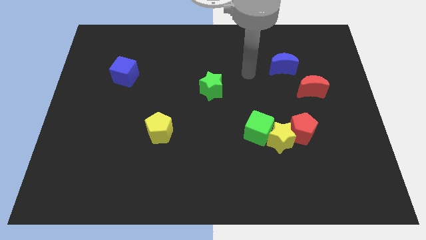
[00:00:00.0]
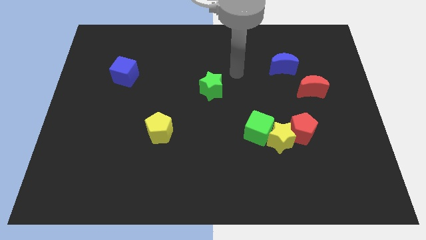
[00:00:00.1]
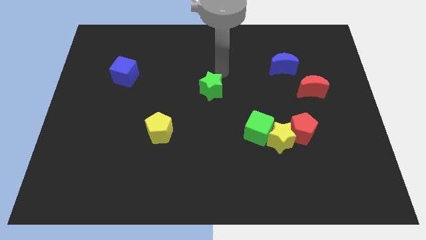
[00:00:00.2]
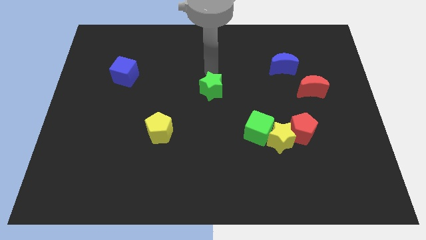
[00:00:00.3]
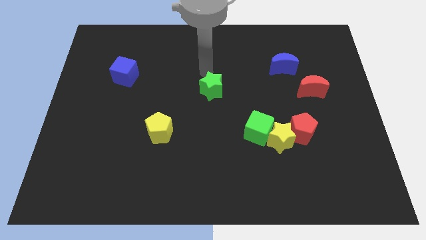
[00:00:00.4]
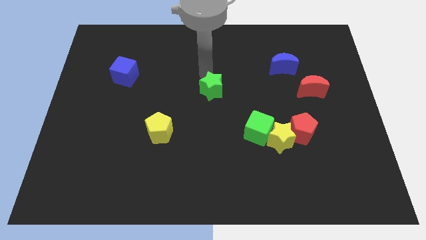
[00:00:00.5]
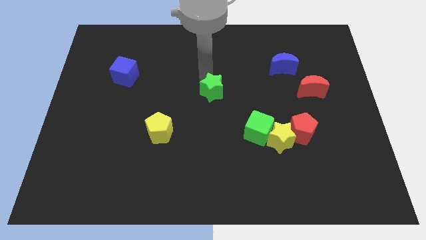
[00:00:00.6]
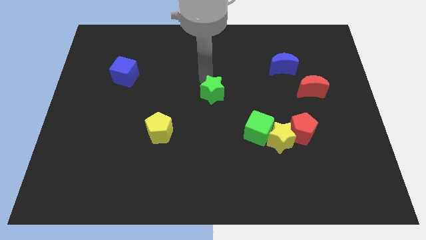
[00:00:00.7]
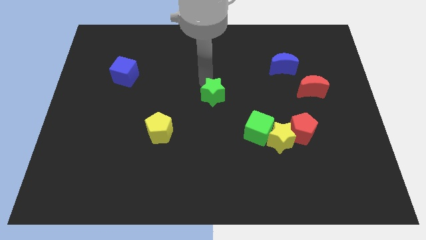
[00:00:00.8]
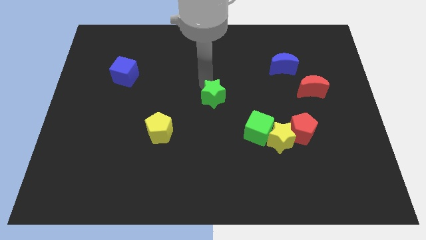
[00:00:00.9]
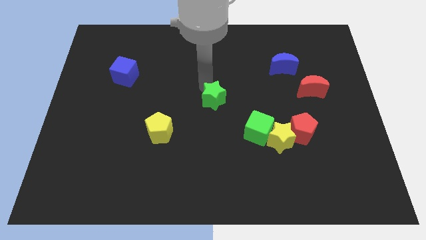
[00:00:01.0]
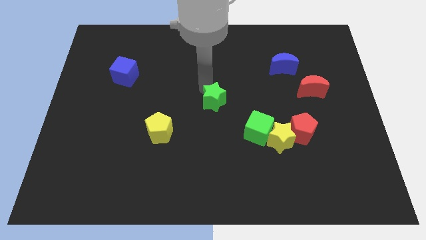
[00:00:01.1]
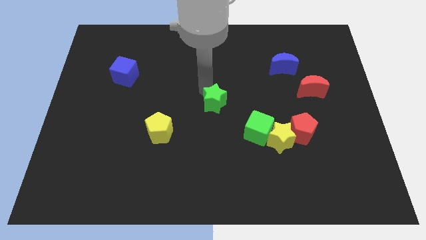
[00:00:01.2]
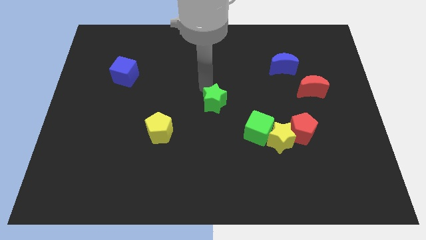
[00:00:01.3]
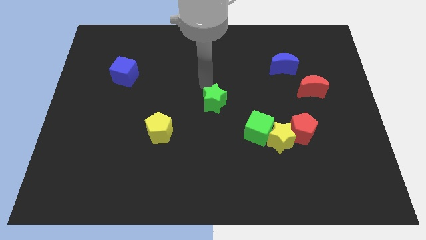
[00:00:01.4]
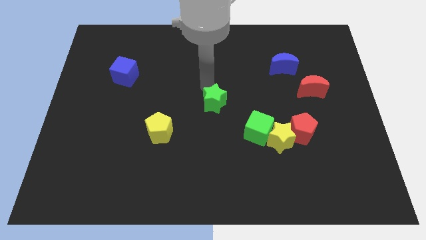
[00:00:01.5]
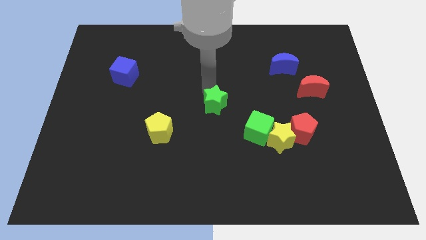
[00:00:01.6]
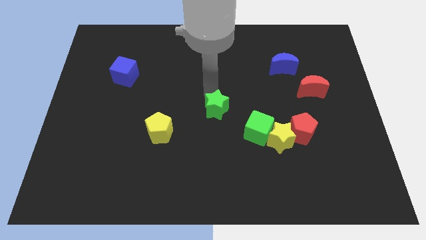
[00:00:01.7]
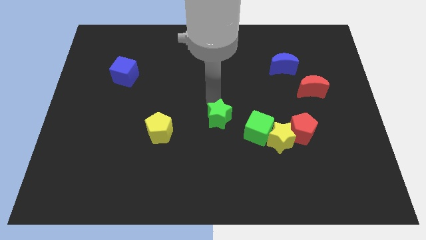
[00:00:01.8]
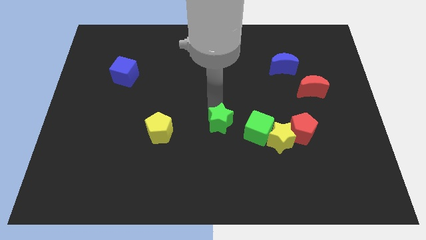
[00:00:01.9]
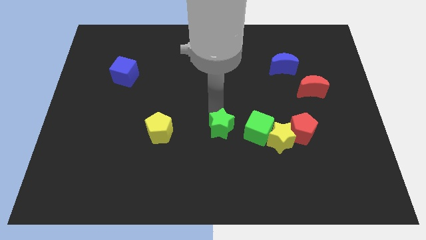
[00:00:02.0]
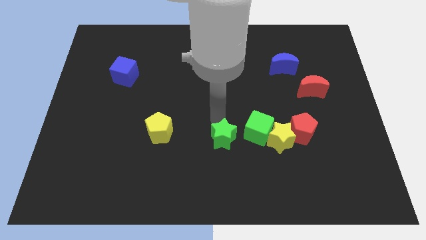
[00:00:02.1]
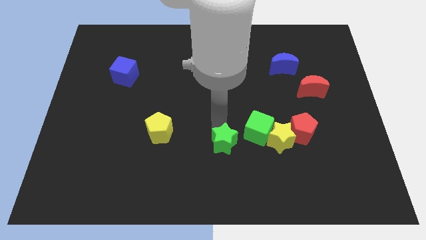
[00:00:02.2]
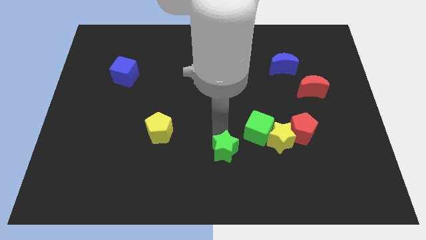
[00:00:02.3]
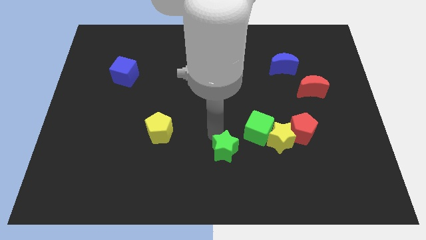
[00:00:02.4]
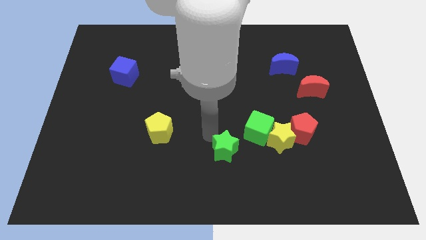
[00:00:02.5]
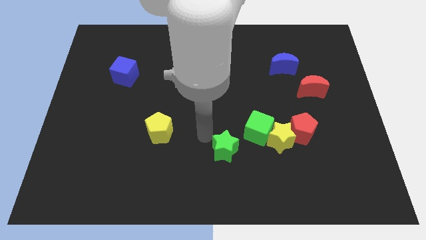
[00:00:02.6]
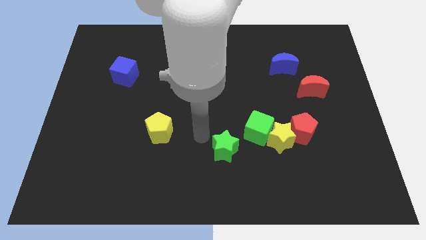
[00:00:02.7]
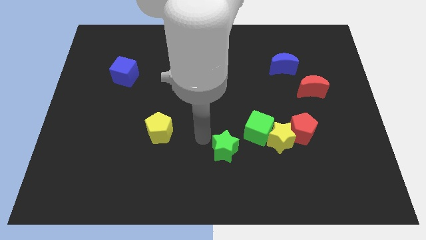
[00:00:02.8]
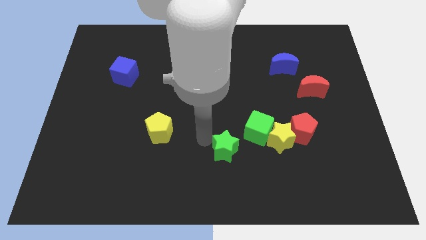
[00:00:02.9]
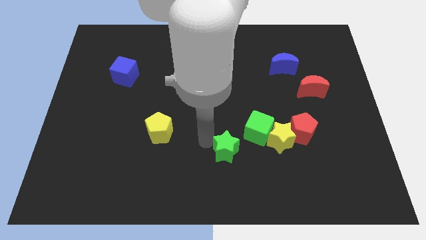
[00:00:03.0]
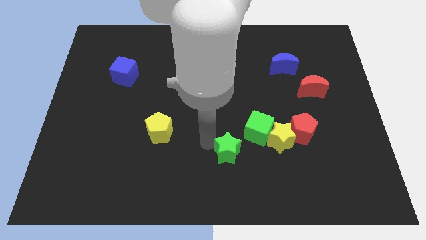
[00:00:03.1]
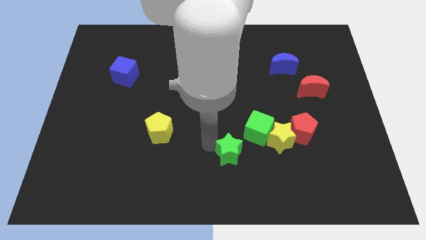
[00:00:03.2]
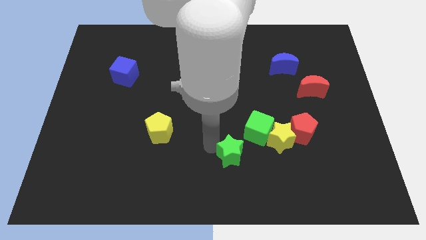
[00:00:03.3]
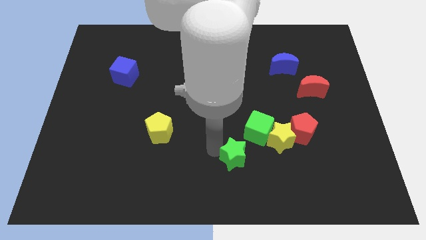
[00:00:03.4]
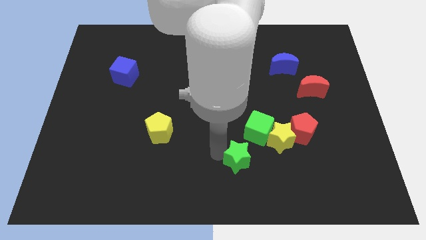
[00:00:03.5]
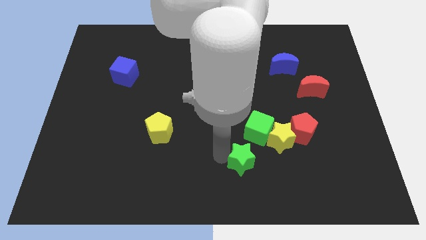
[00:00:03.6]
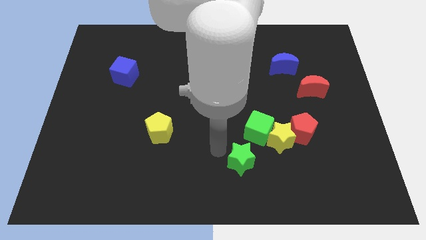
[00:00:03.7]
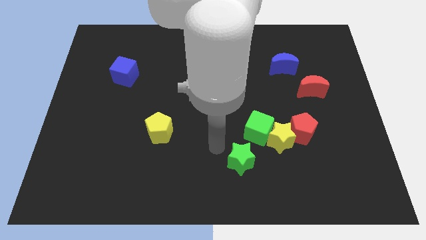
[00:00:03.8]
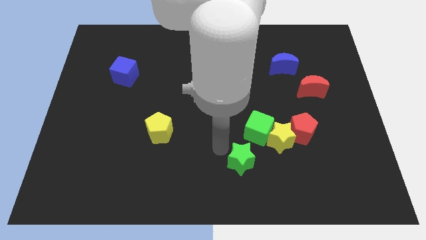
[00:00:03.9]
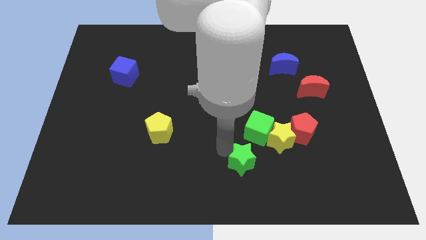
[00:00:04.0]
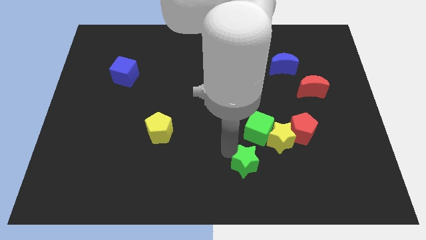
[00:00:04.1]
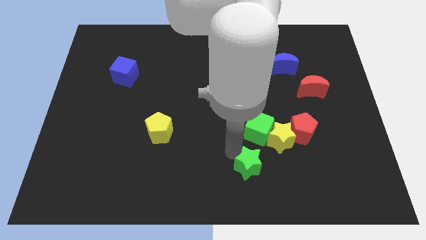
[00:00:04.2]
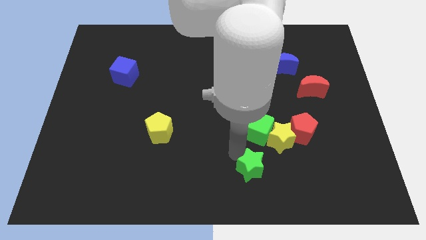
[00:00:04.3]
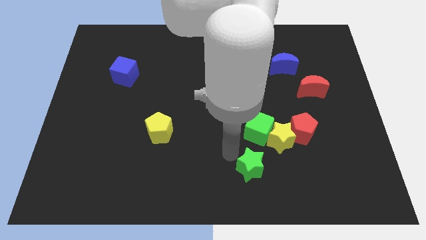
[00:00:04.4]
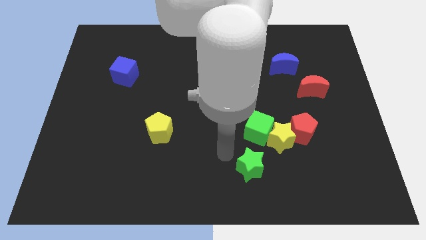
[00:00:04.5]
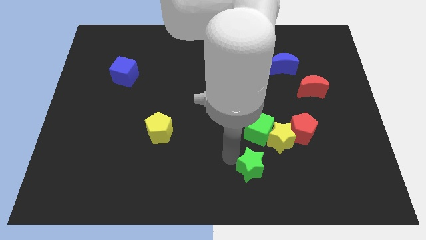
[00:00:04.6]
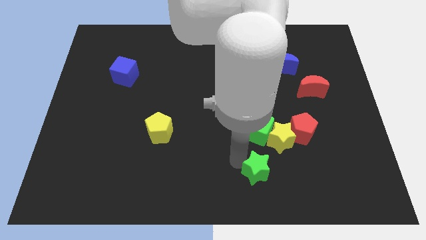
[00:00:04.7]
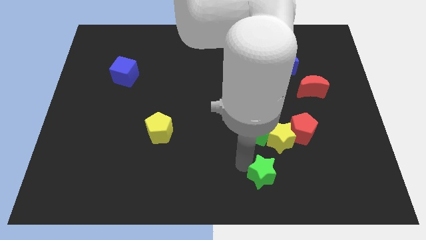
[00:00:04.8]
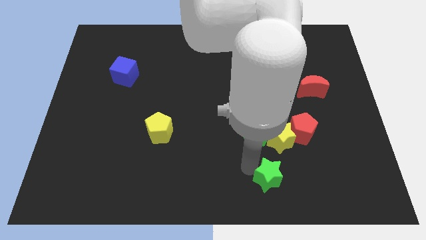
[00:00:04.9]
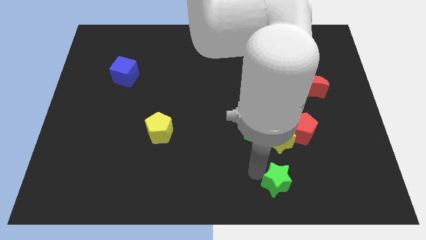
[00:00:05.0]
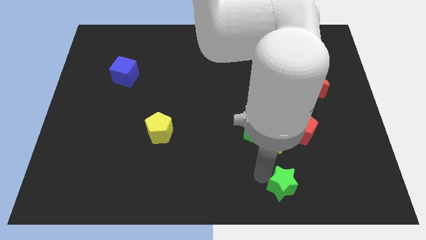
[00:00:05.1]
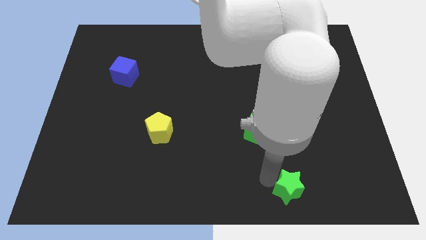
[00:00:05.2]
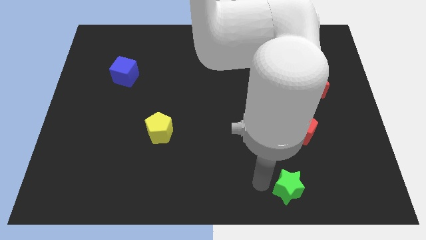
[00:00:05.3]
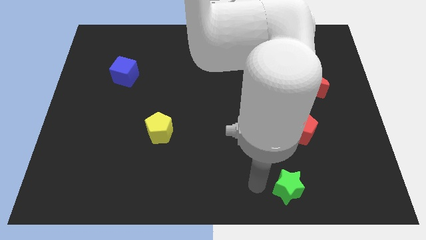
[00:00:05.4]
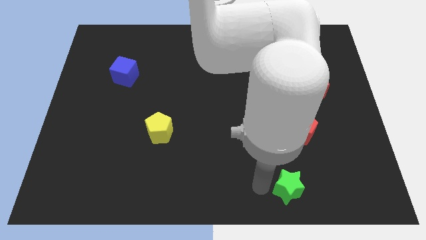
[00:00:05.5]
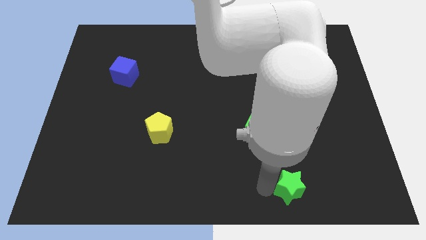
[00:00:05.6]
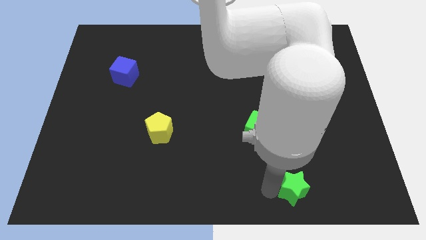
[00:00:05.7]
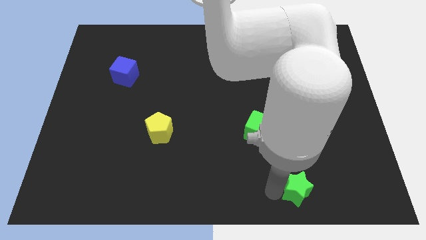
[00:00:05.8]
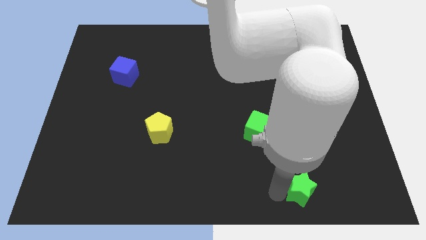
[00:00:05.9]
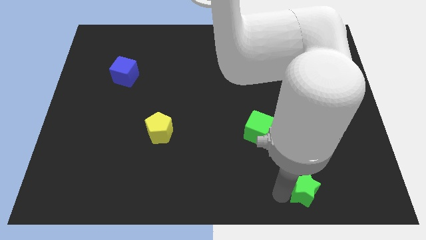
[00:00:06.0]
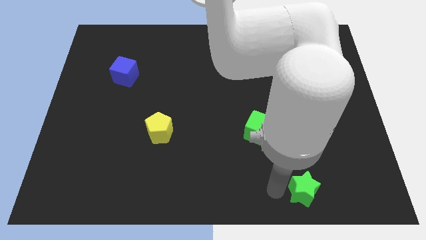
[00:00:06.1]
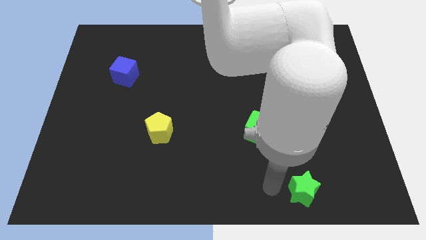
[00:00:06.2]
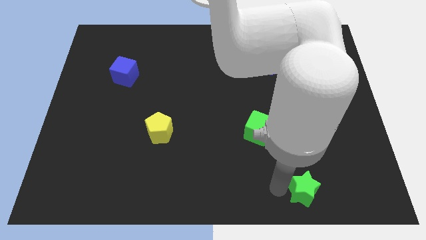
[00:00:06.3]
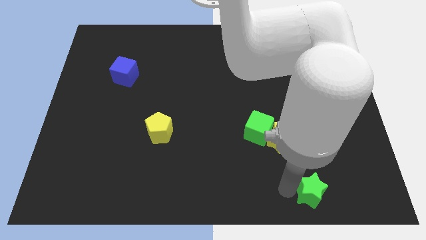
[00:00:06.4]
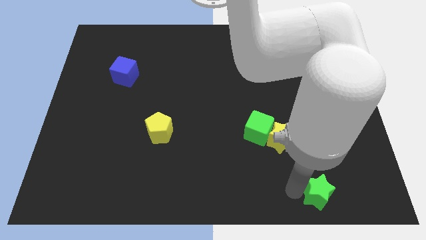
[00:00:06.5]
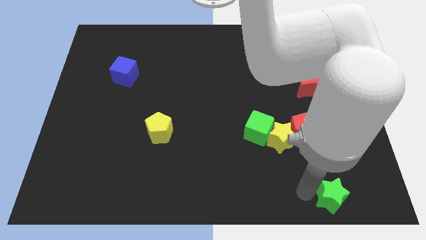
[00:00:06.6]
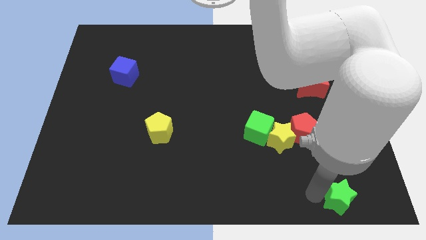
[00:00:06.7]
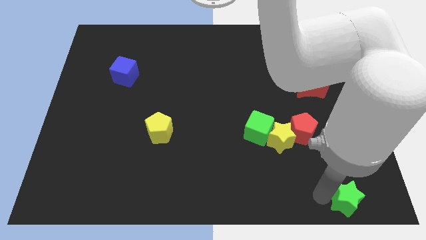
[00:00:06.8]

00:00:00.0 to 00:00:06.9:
slide the green star to the bottom right corner

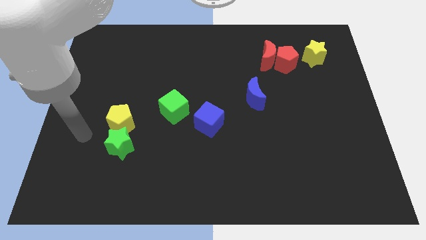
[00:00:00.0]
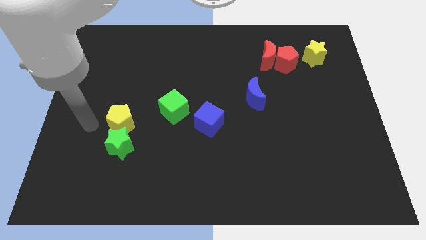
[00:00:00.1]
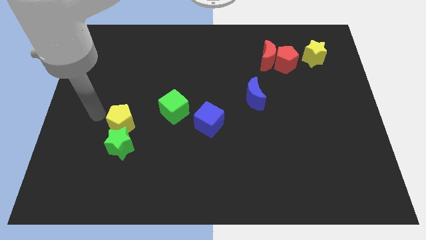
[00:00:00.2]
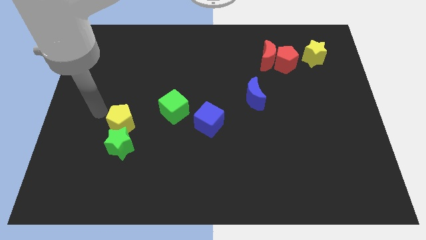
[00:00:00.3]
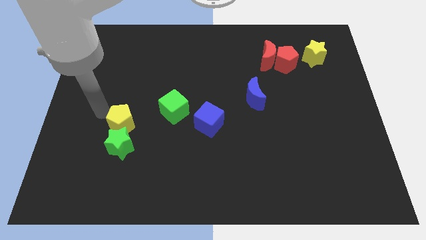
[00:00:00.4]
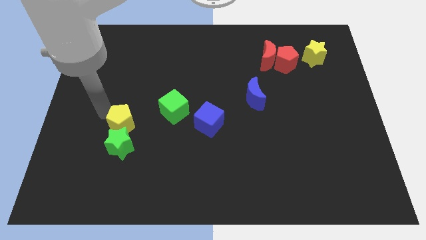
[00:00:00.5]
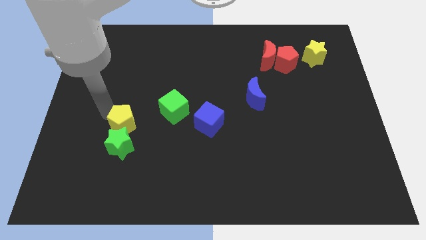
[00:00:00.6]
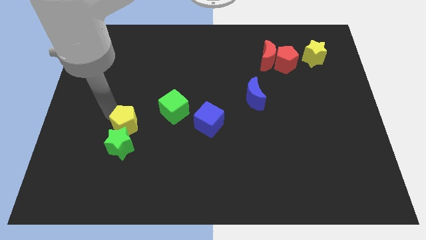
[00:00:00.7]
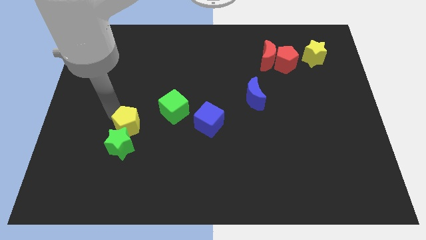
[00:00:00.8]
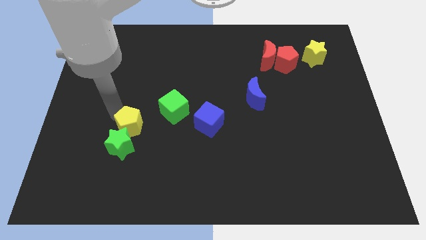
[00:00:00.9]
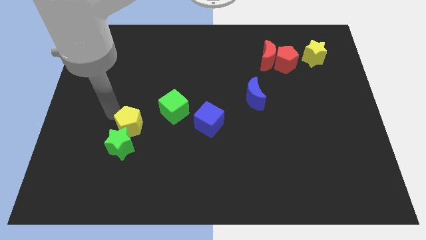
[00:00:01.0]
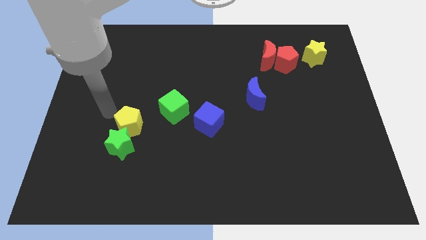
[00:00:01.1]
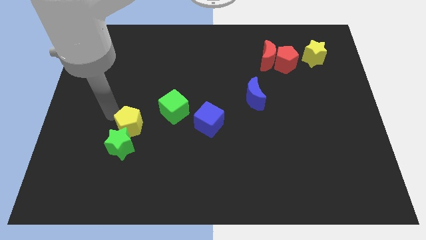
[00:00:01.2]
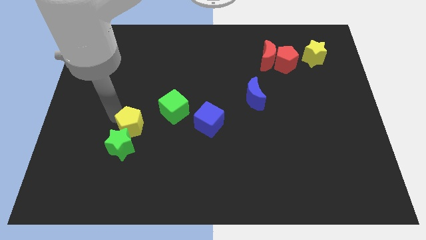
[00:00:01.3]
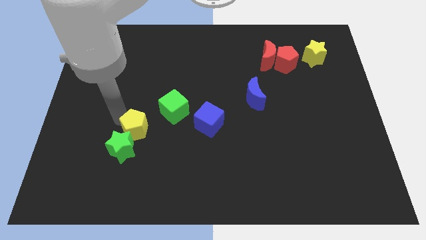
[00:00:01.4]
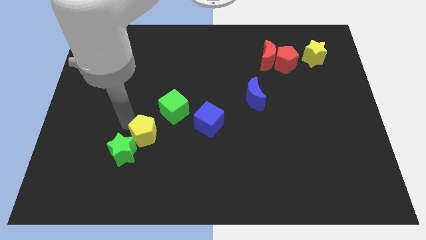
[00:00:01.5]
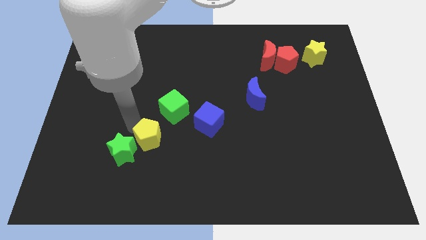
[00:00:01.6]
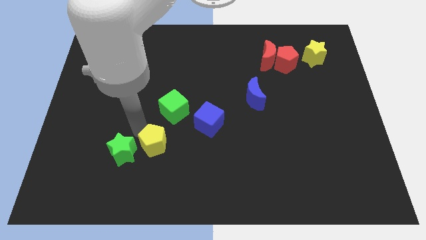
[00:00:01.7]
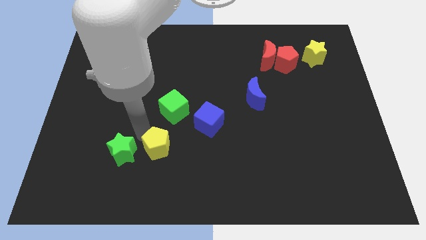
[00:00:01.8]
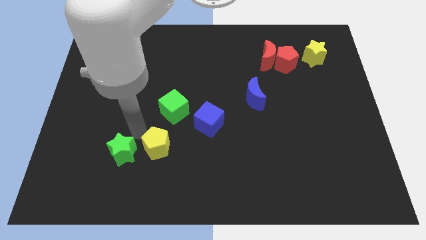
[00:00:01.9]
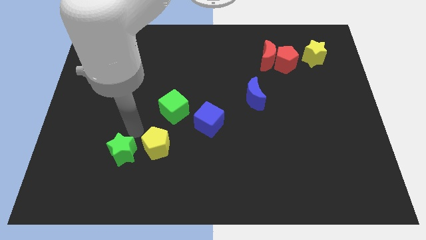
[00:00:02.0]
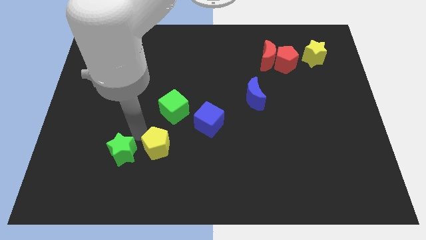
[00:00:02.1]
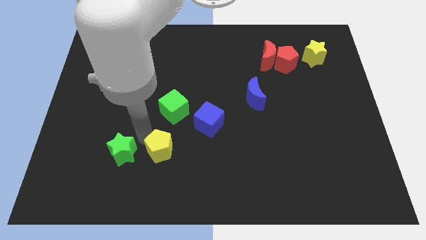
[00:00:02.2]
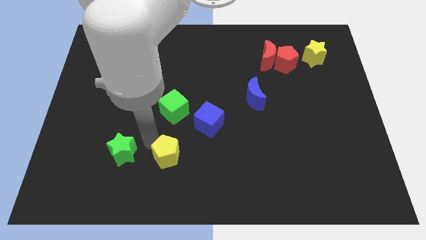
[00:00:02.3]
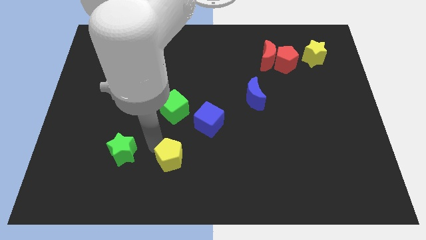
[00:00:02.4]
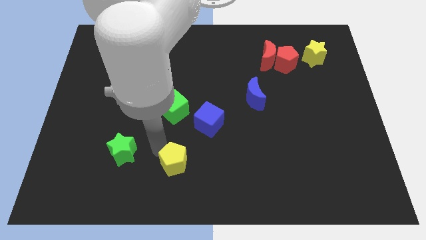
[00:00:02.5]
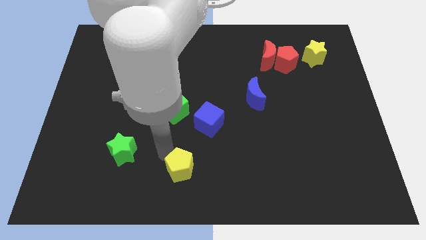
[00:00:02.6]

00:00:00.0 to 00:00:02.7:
push the yellow pentagon to the bottom side
